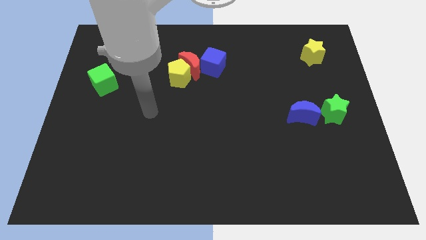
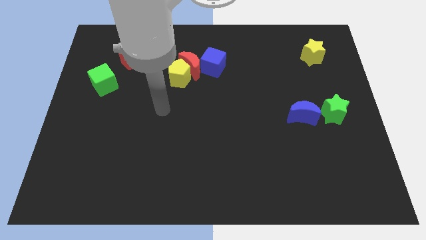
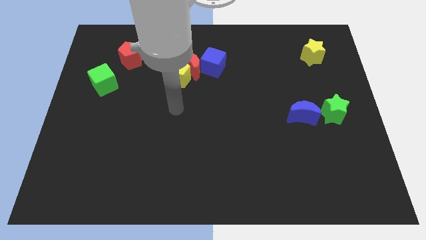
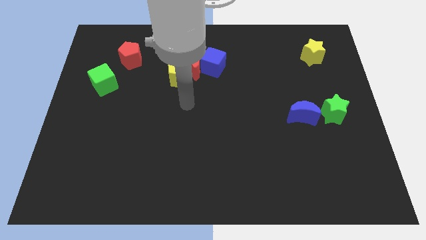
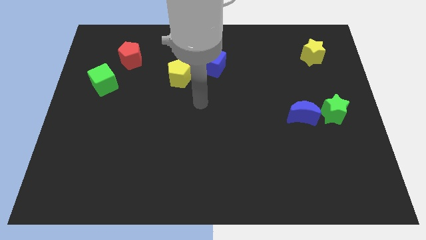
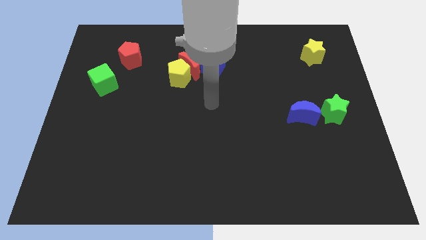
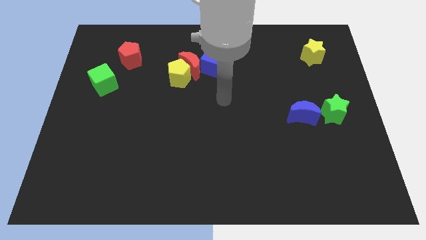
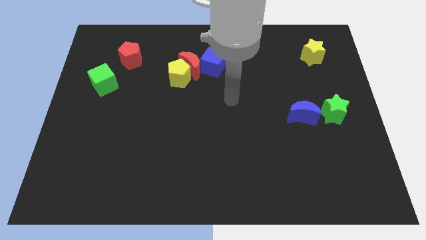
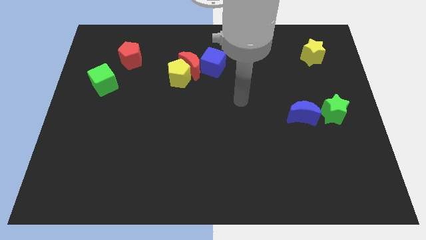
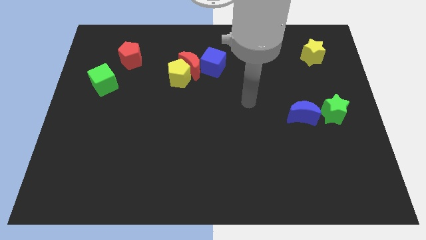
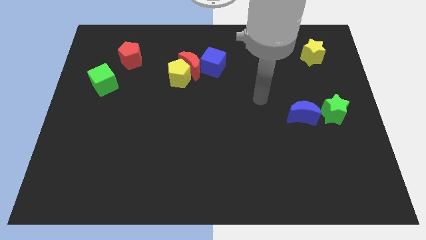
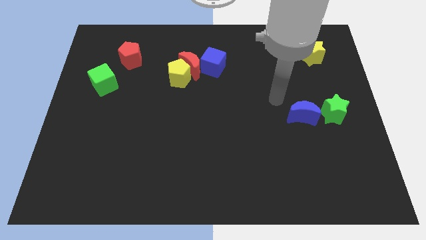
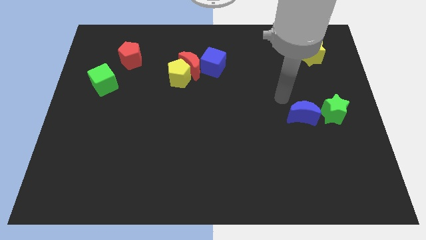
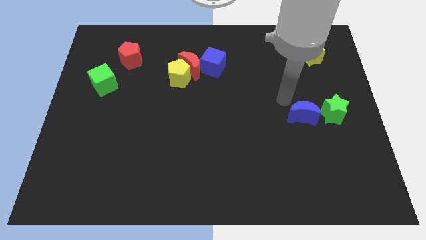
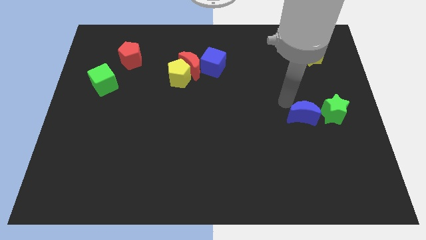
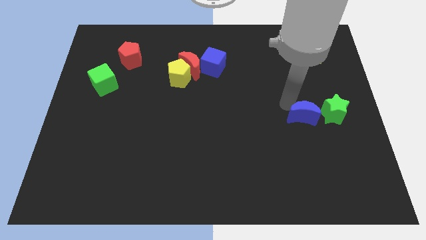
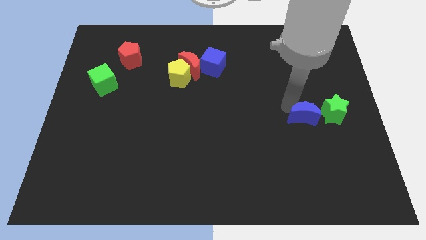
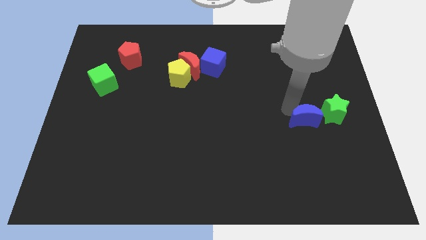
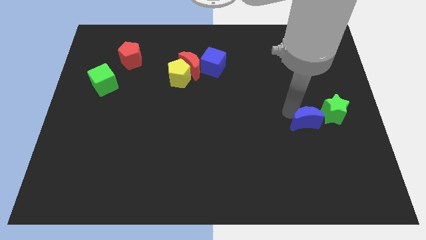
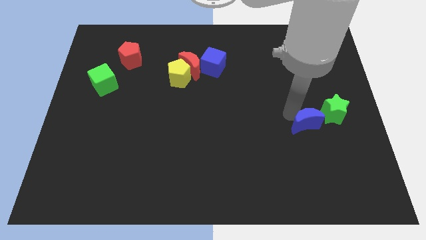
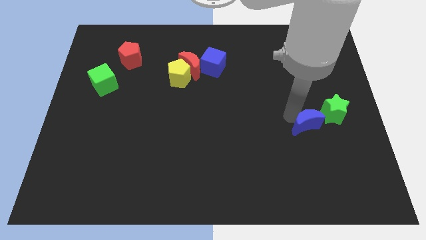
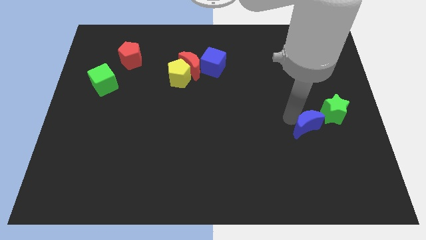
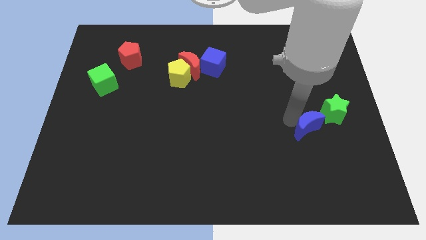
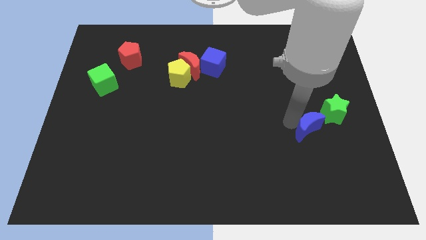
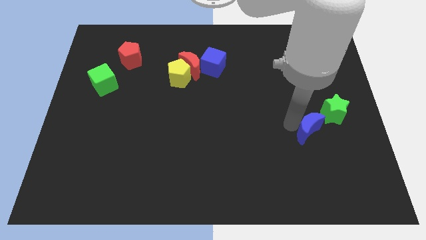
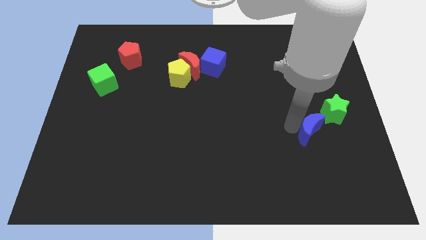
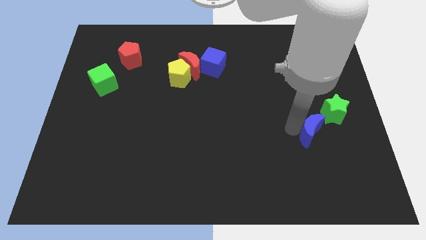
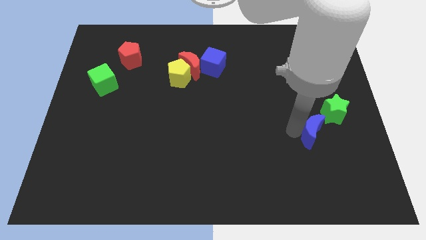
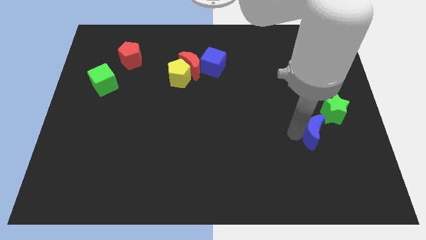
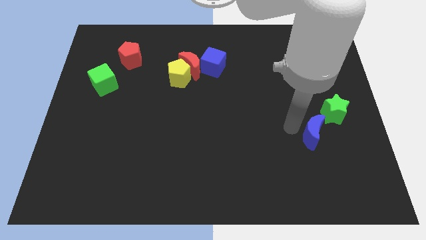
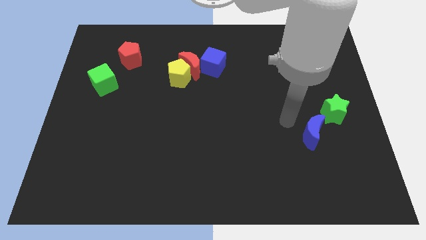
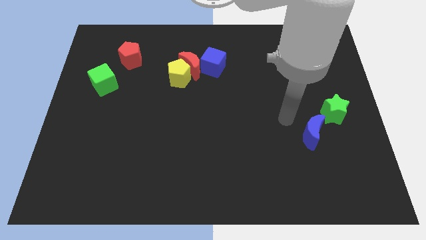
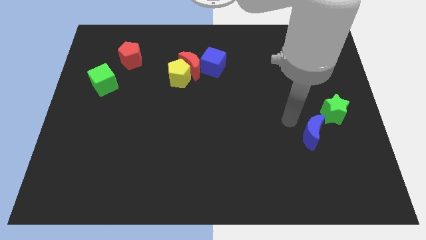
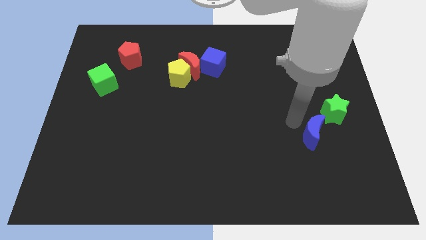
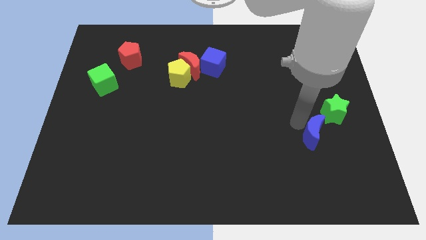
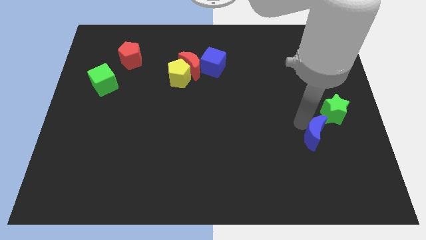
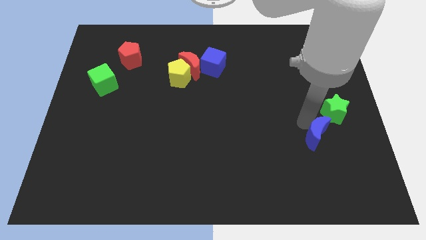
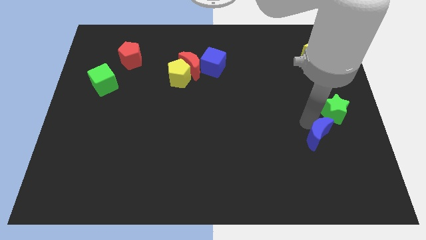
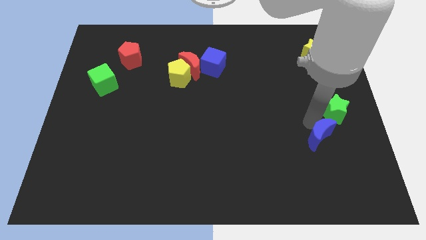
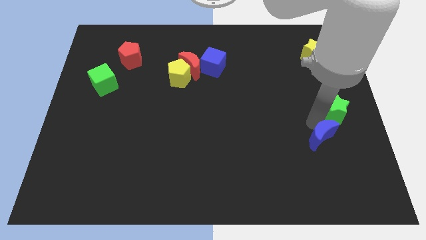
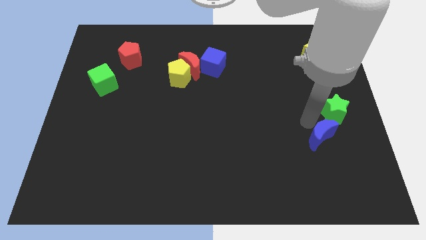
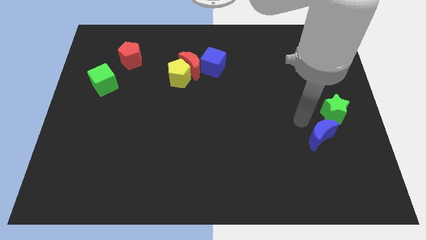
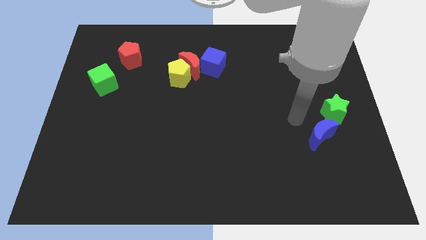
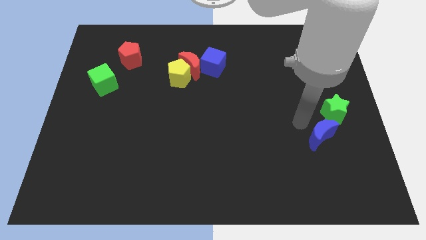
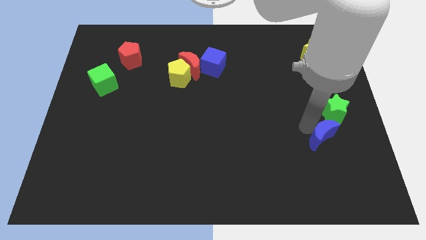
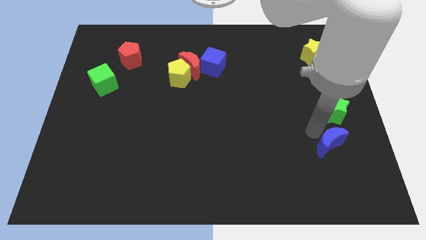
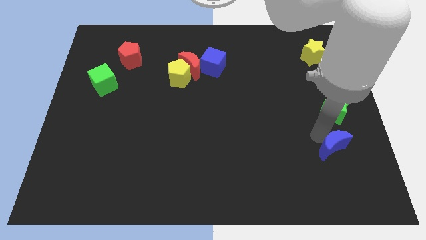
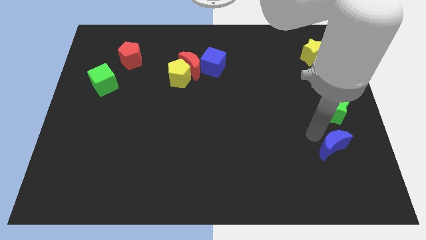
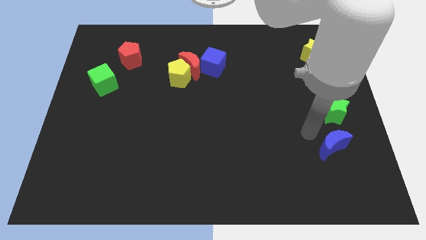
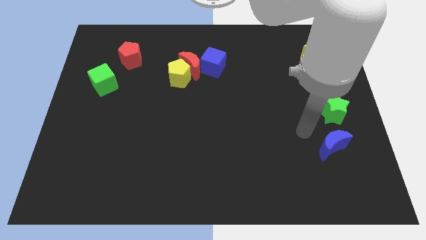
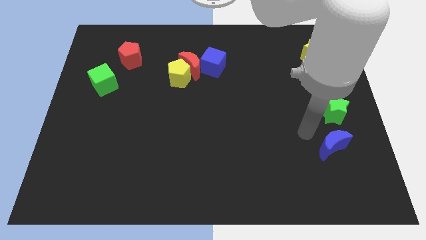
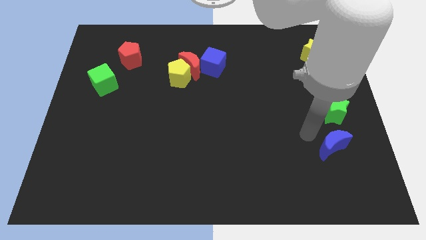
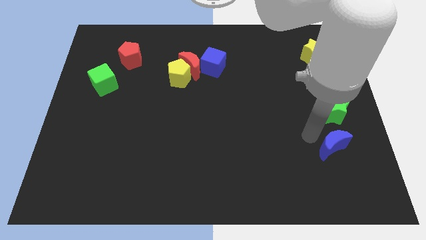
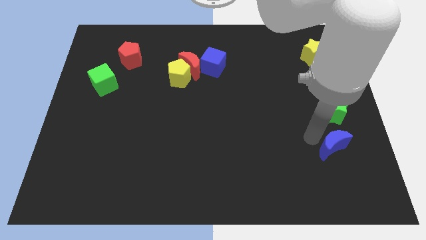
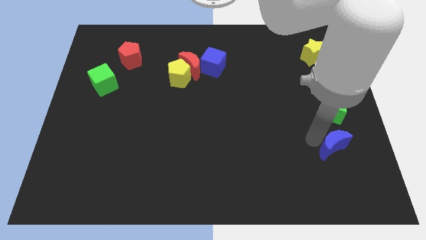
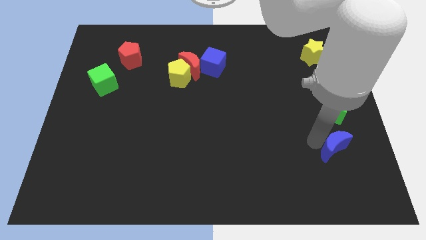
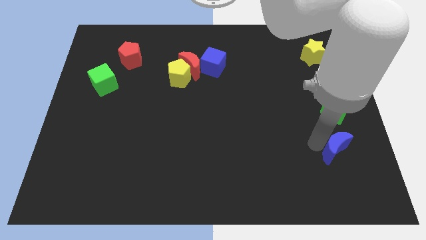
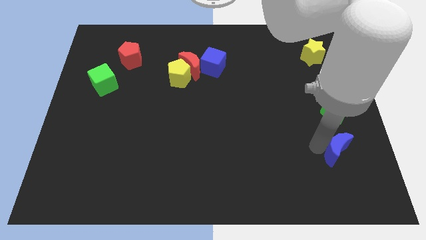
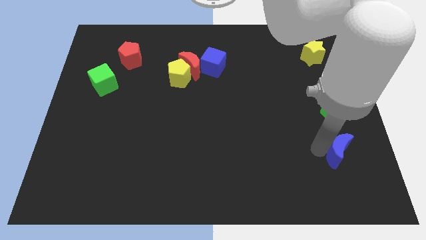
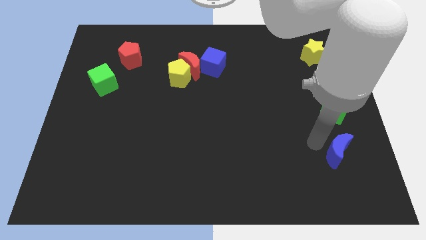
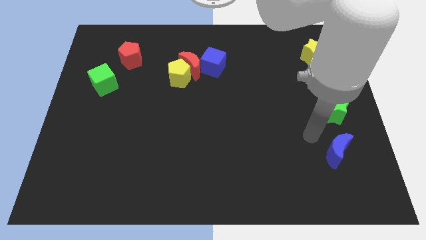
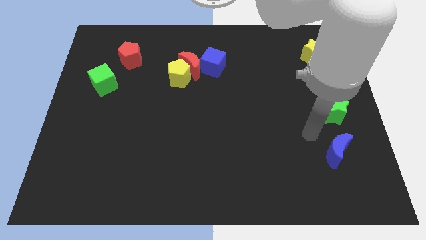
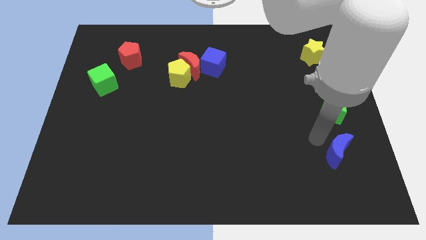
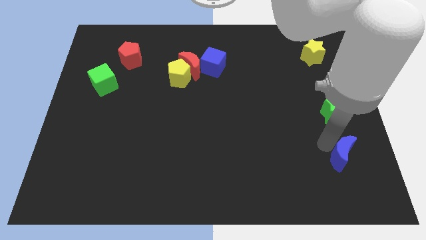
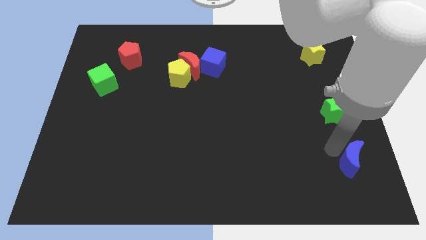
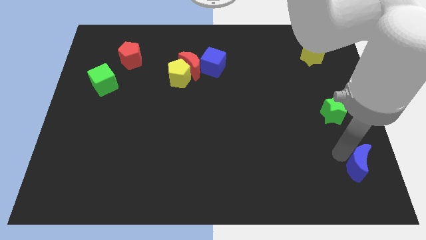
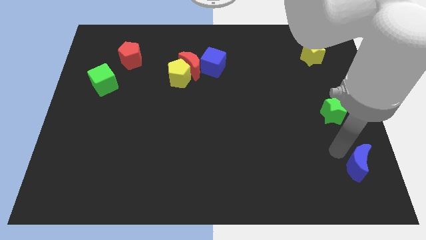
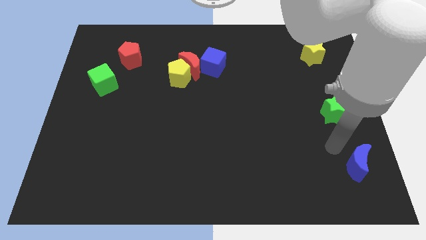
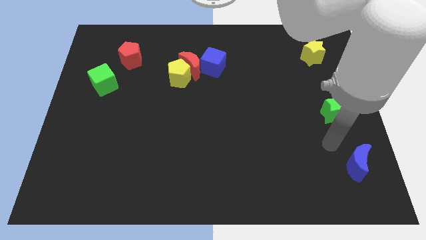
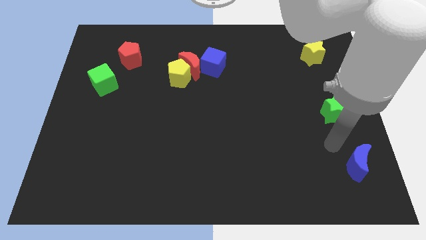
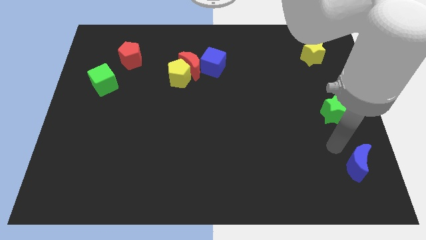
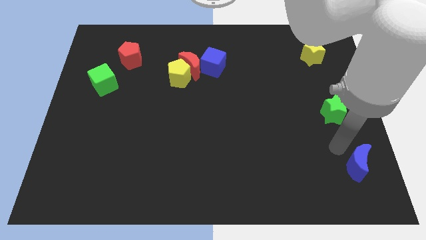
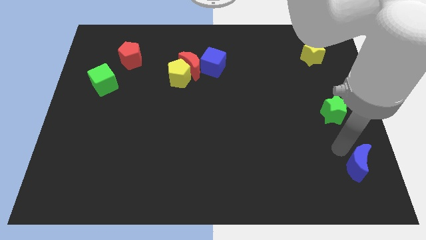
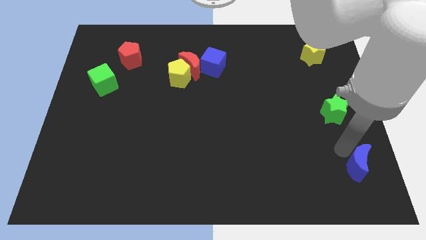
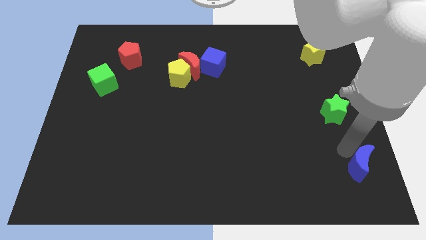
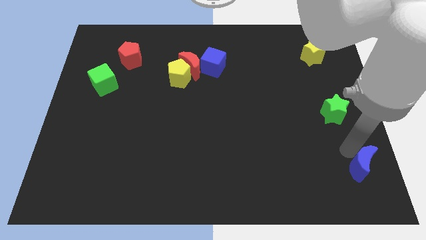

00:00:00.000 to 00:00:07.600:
push the blue moon to the bottom right of the board
